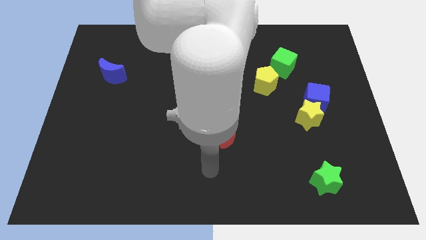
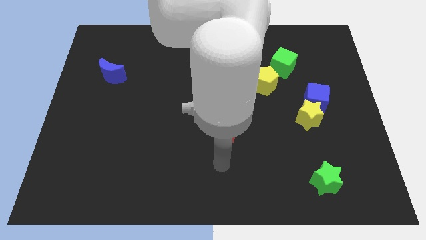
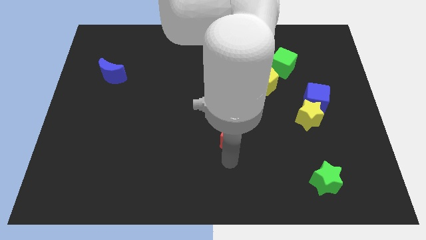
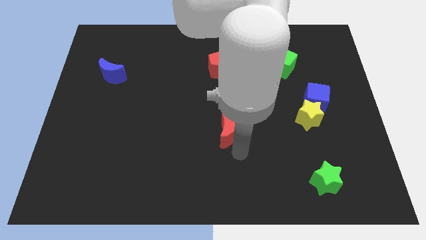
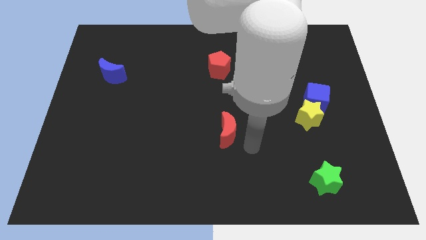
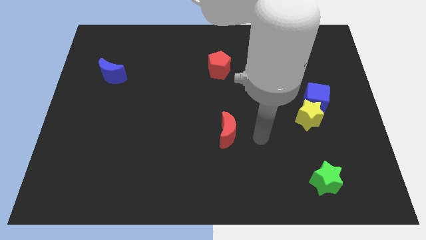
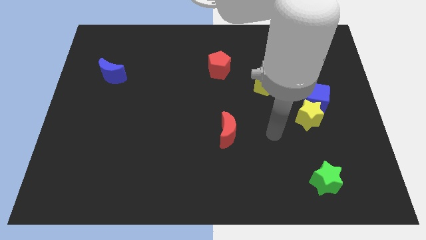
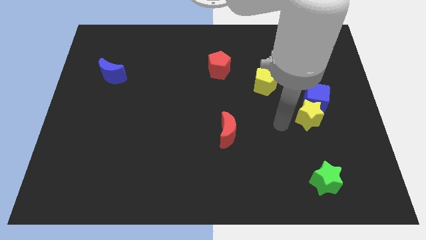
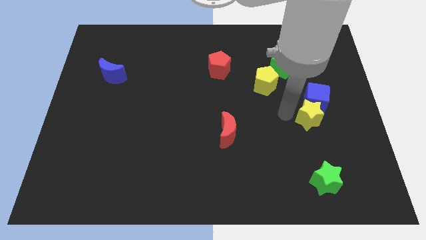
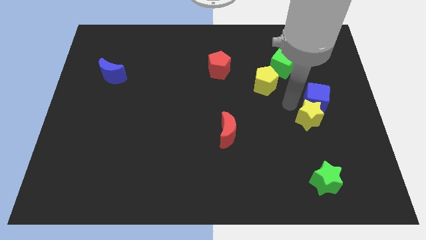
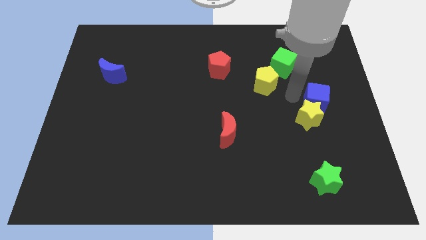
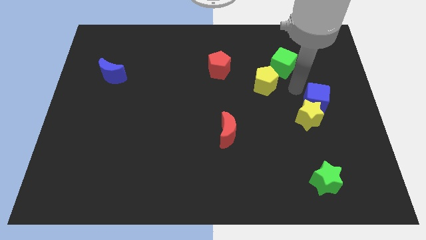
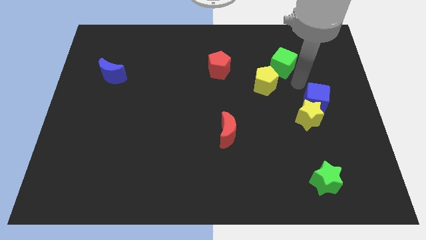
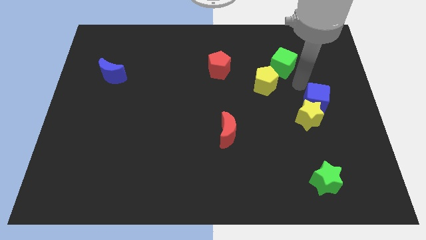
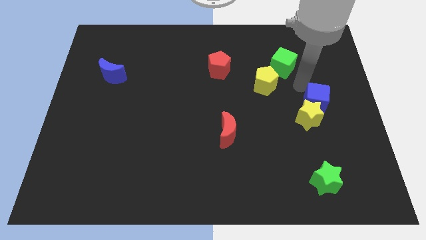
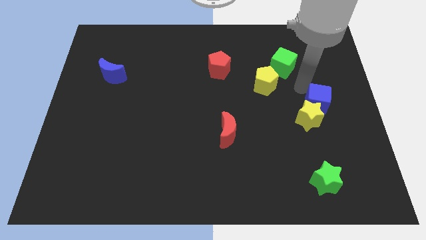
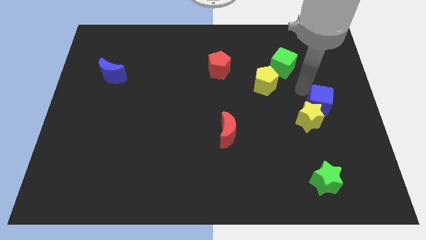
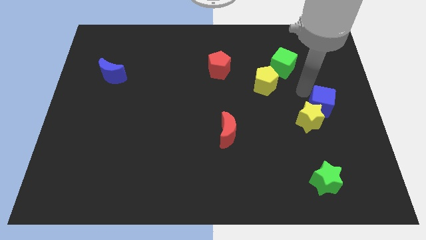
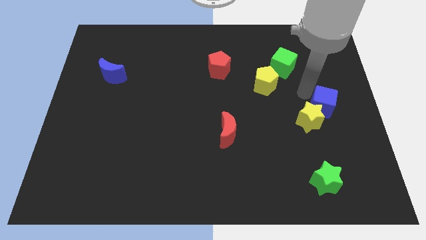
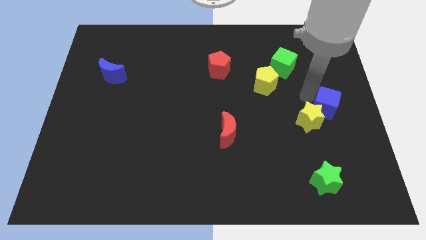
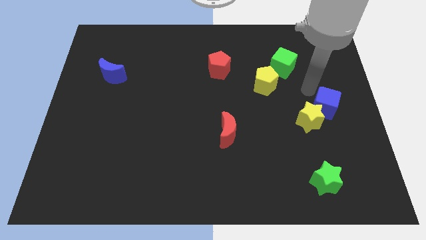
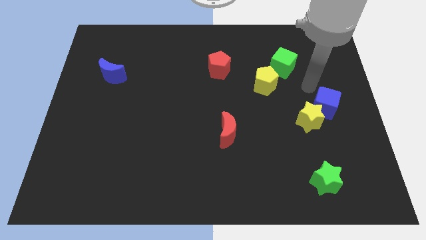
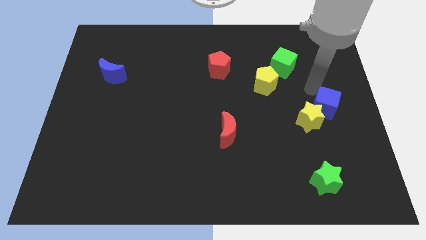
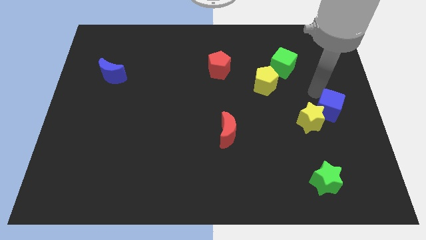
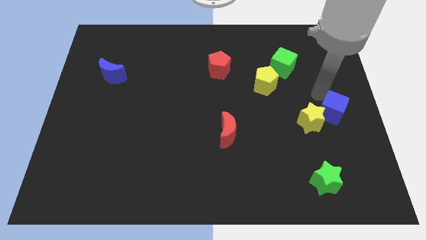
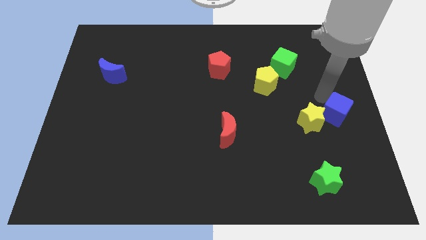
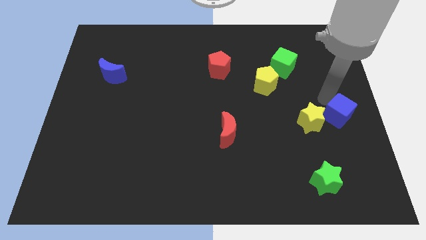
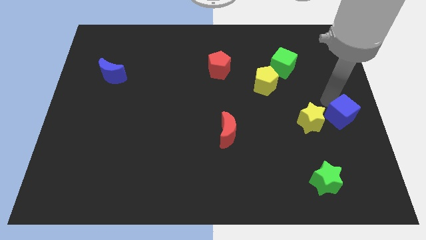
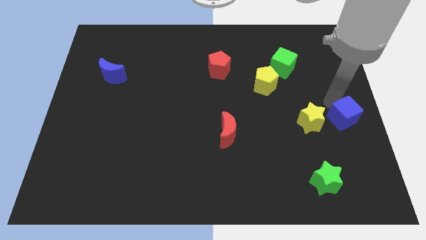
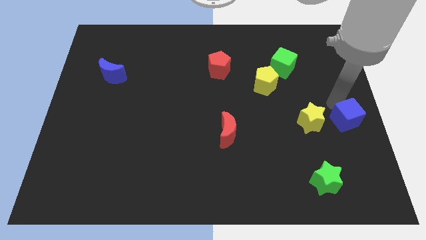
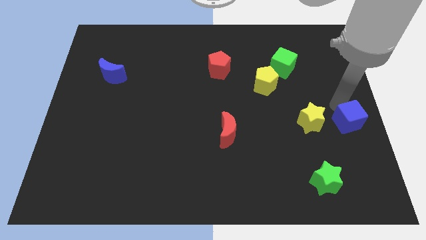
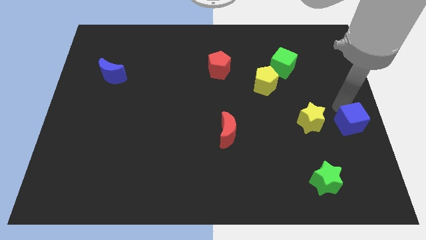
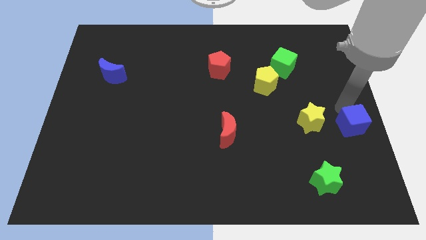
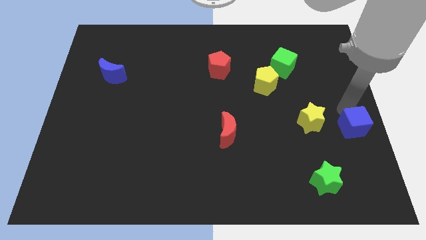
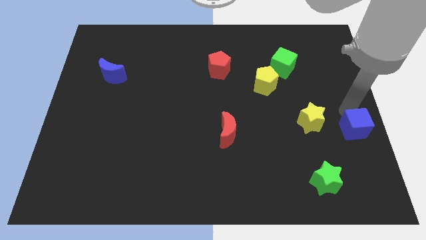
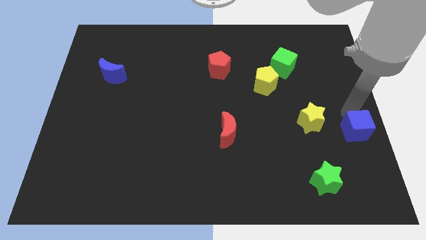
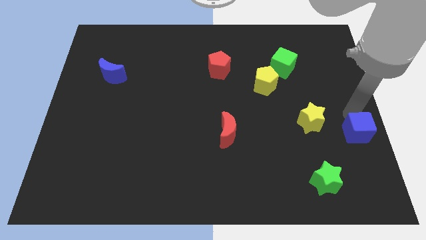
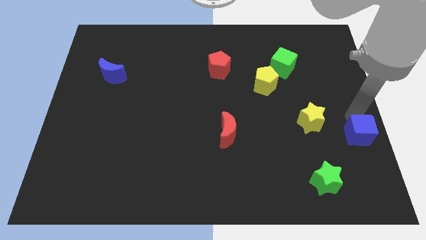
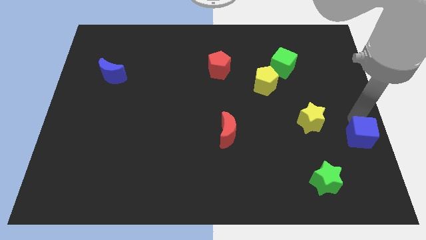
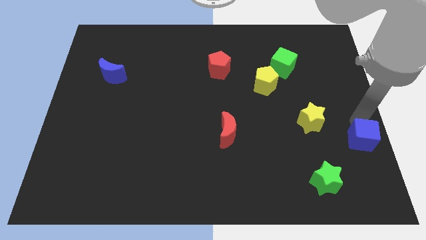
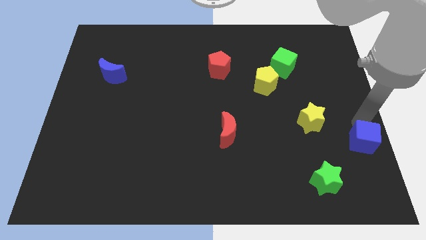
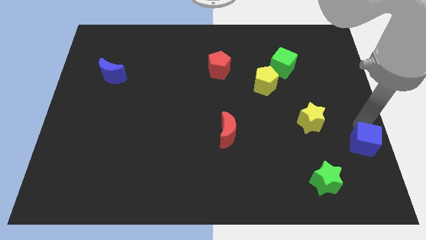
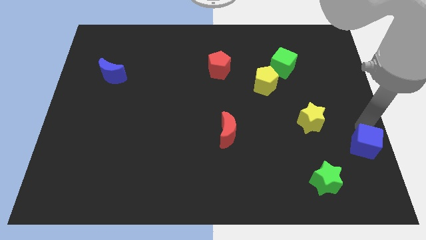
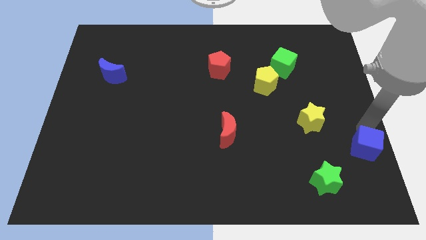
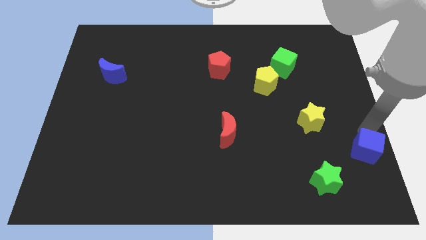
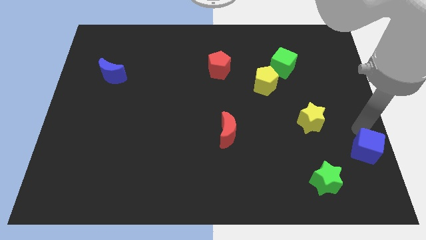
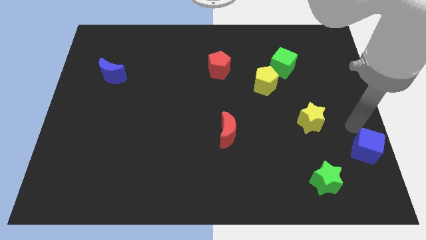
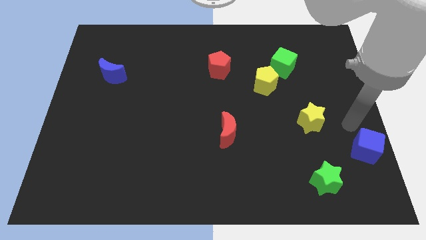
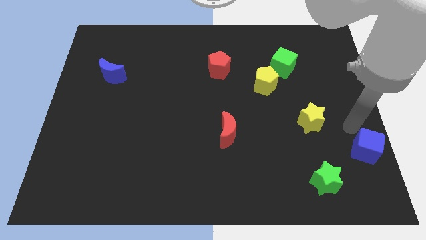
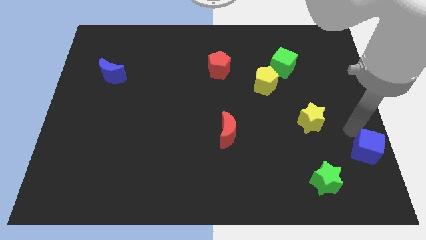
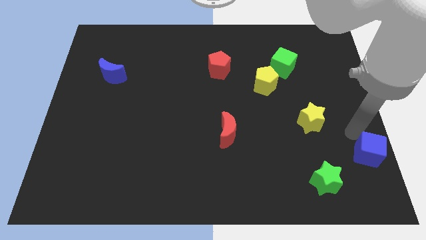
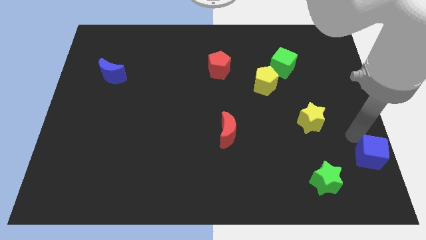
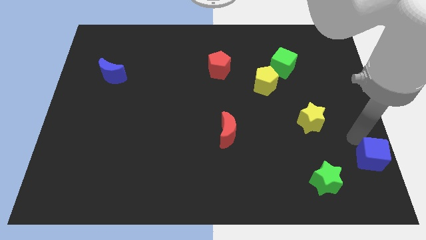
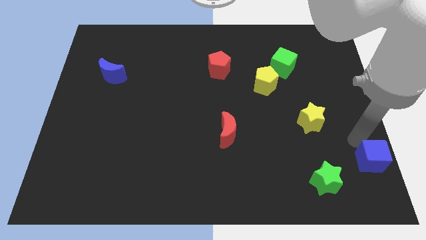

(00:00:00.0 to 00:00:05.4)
put the blue cube to the bottom right
